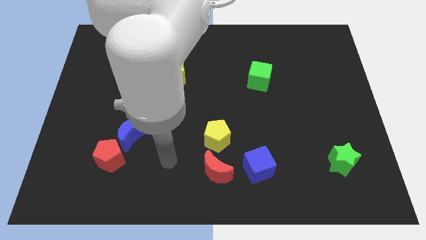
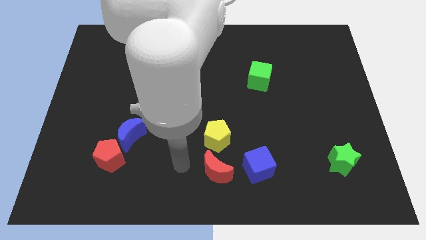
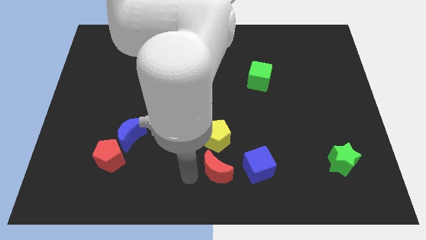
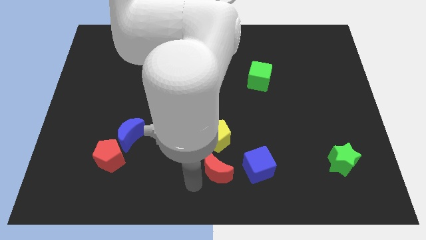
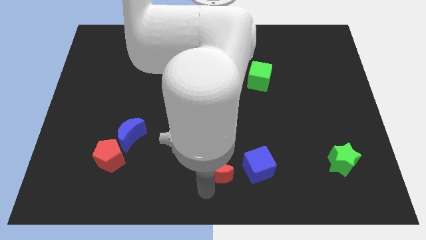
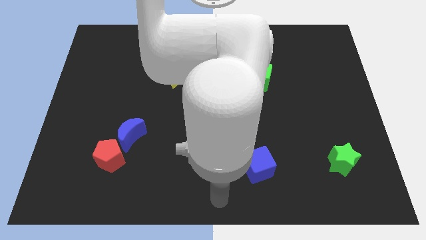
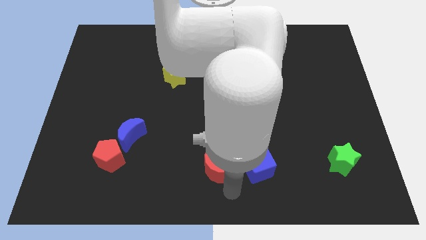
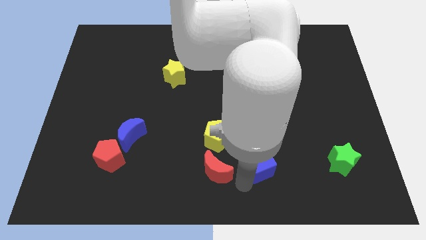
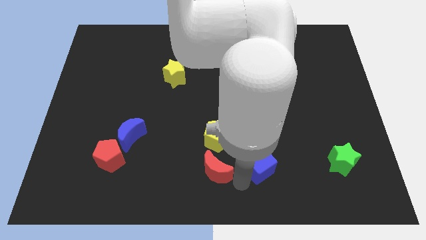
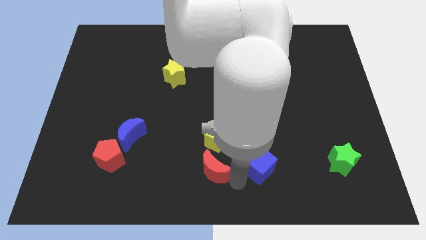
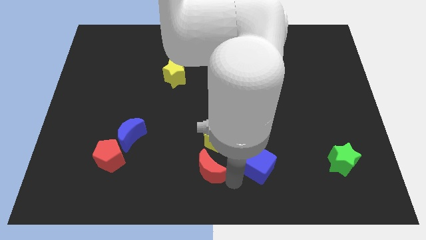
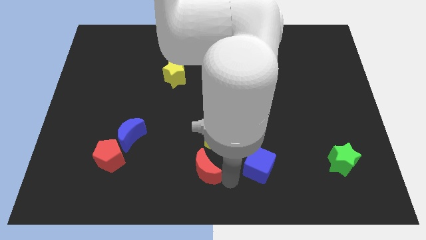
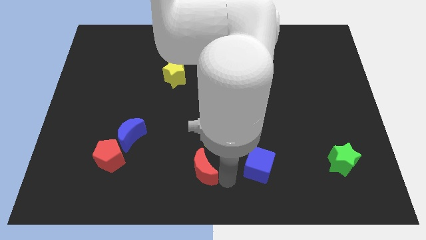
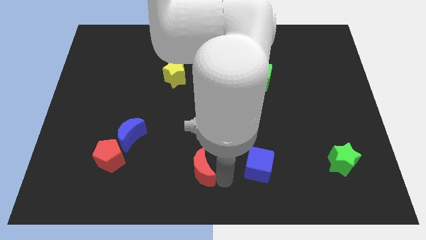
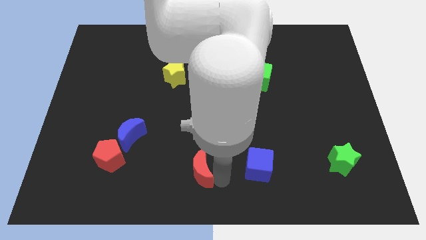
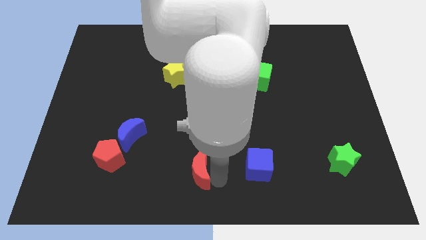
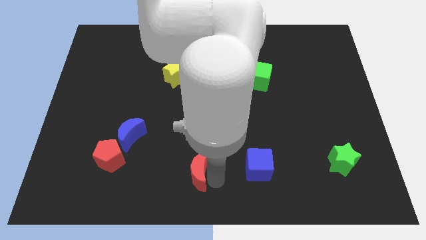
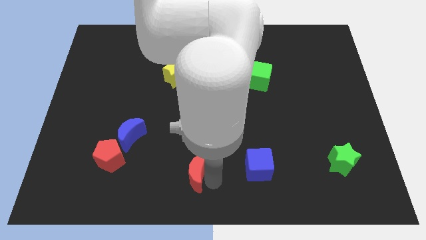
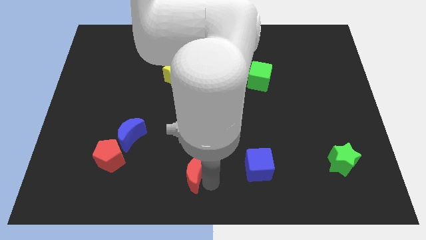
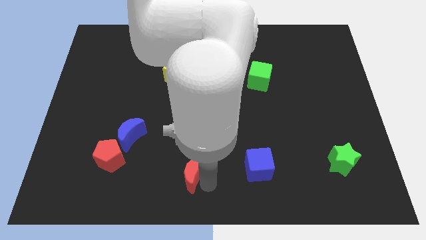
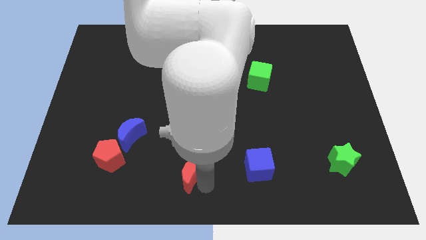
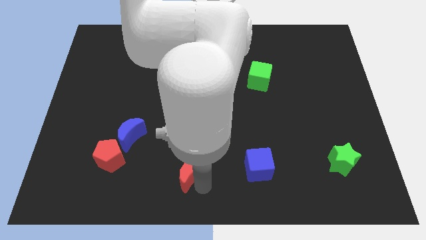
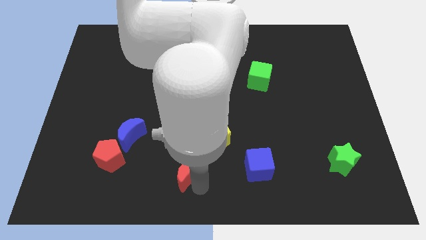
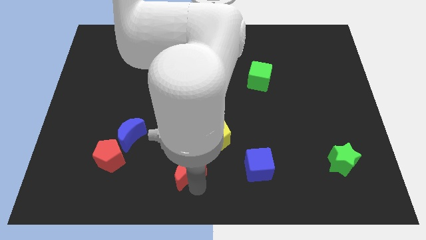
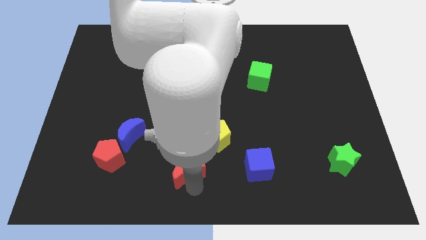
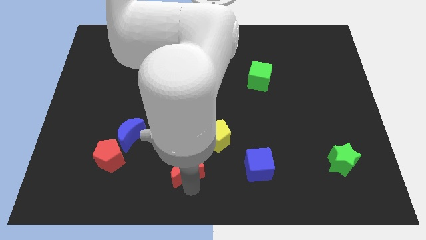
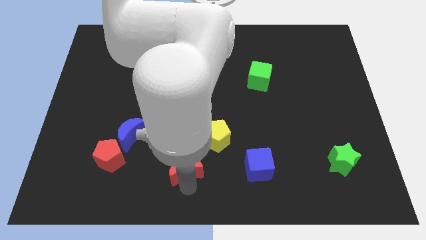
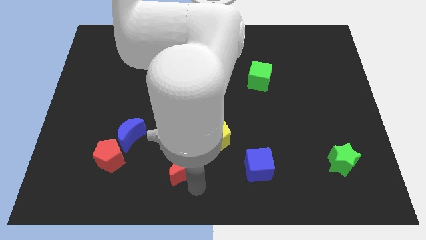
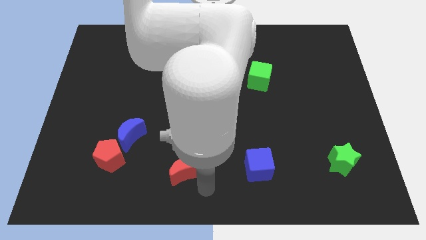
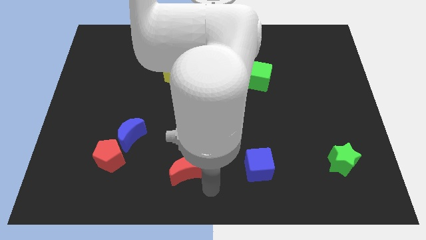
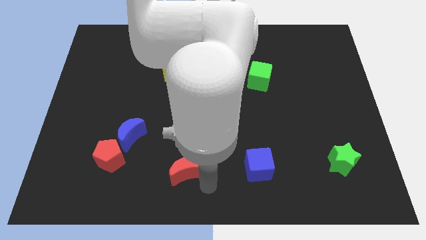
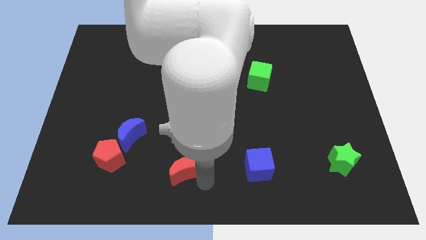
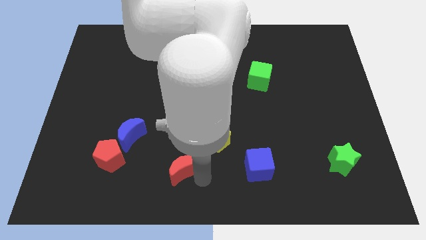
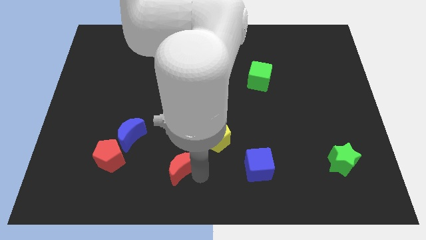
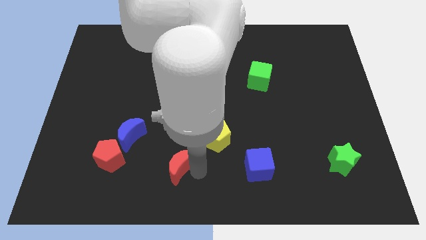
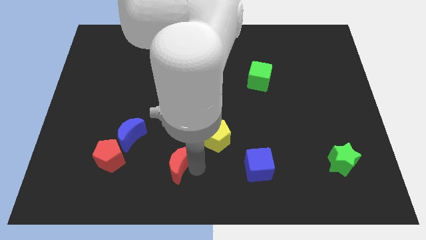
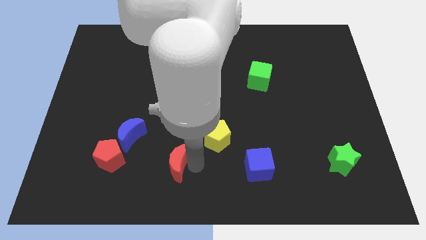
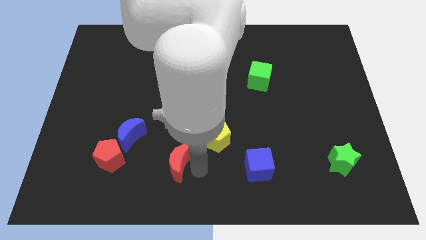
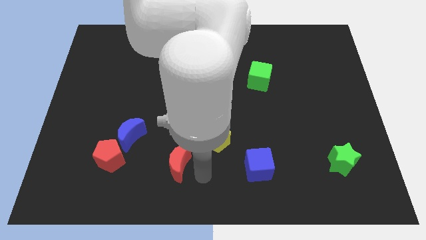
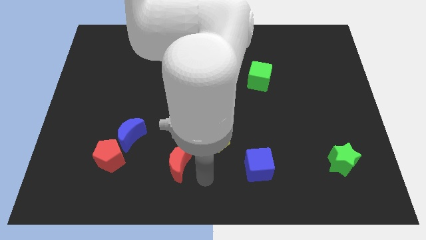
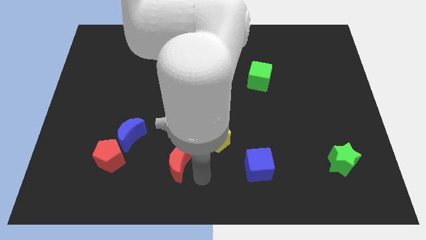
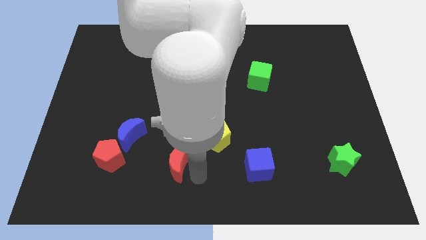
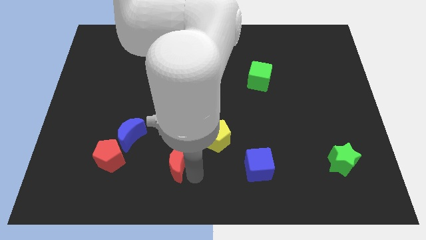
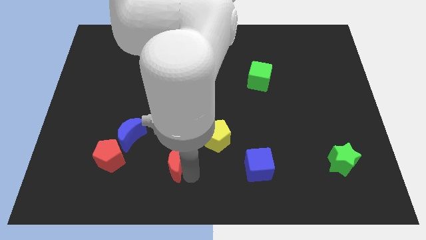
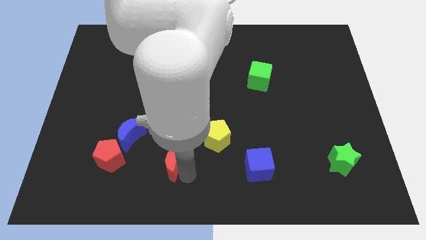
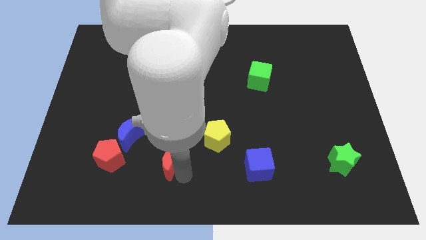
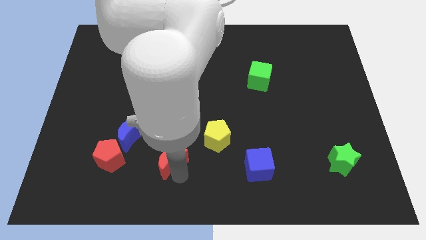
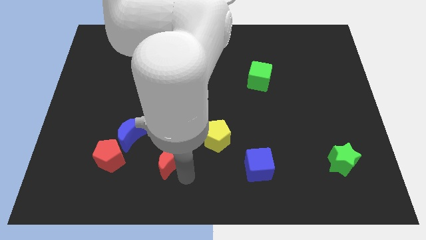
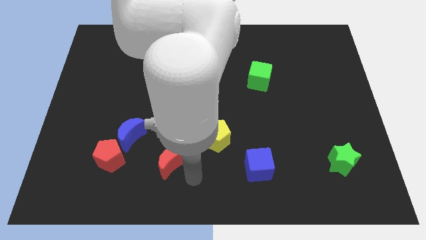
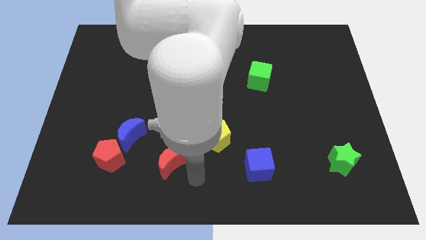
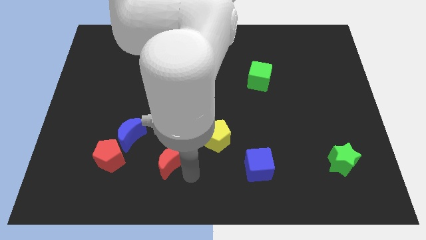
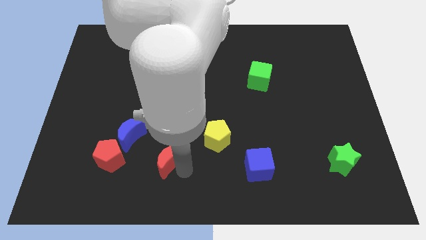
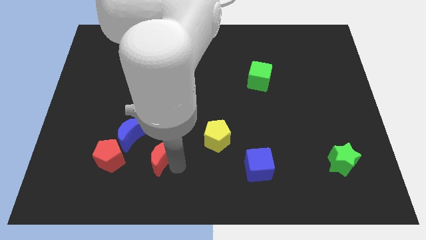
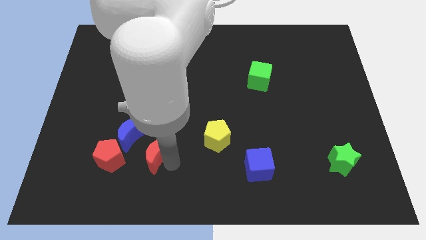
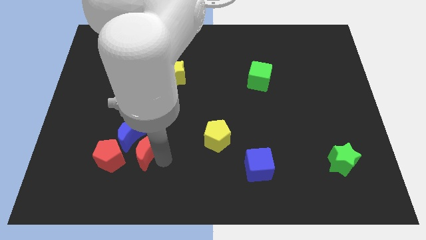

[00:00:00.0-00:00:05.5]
push the red moon towards the blue moon

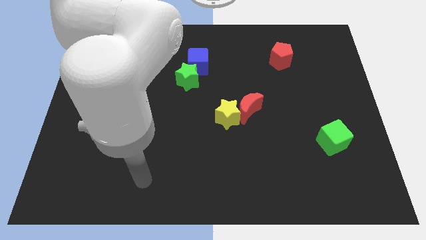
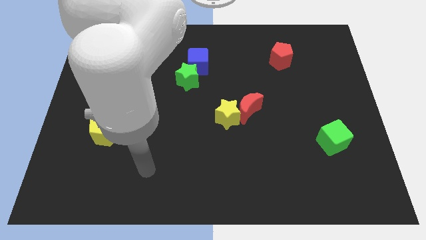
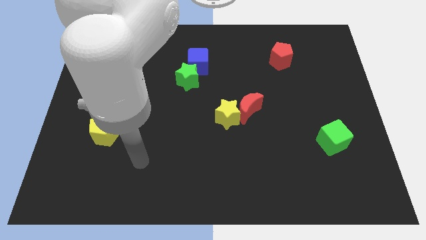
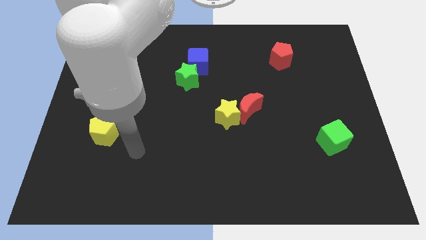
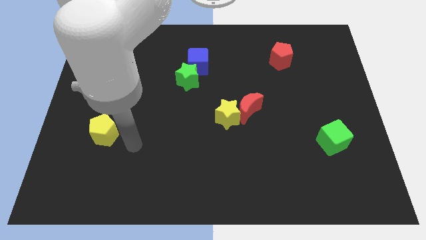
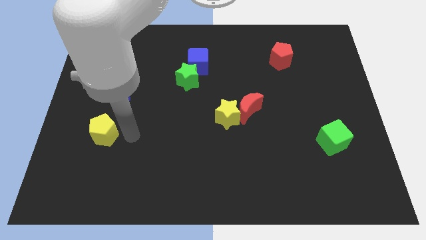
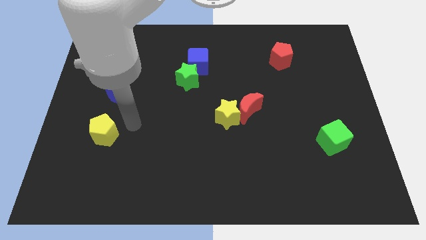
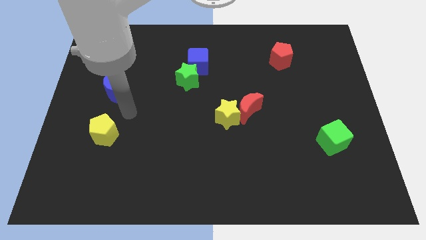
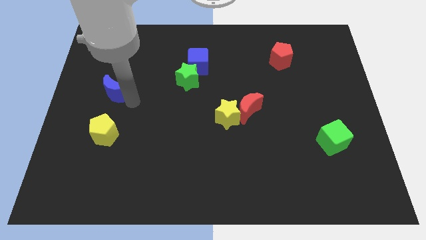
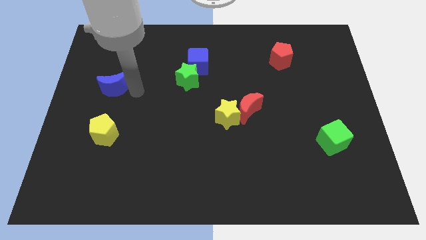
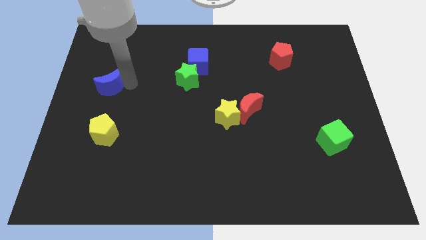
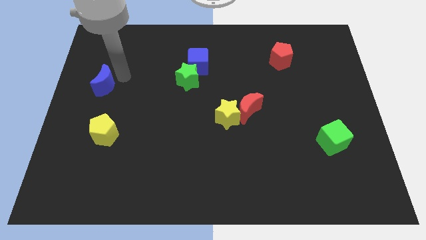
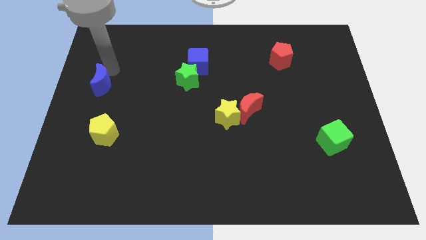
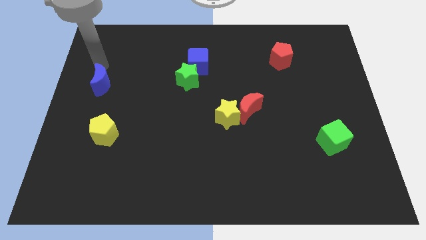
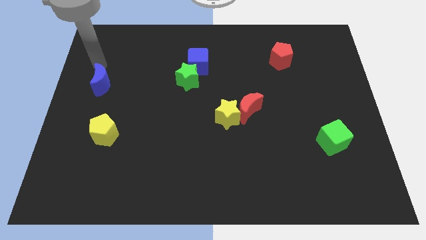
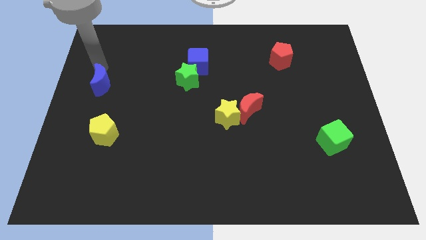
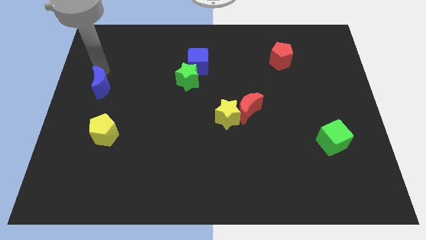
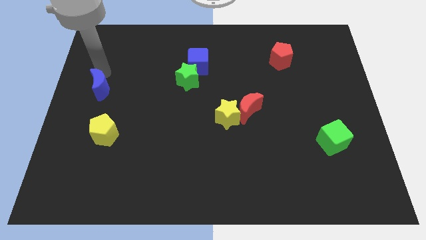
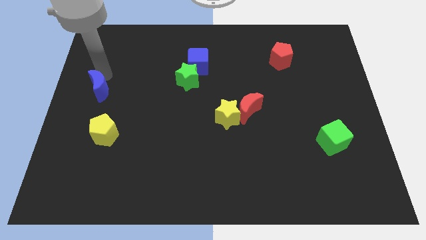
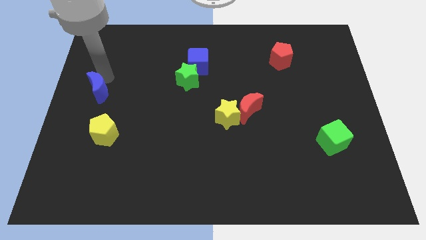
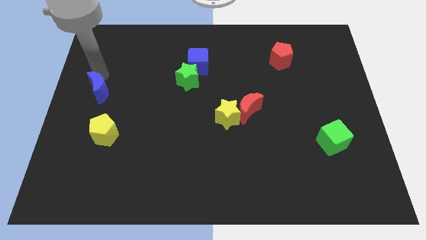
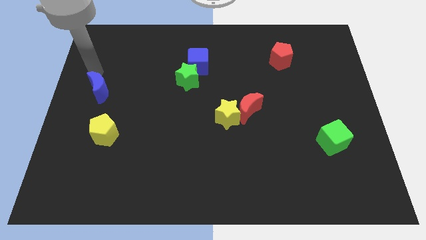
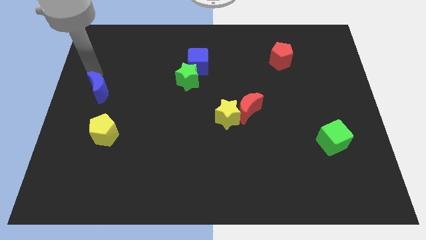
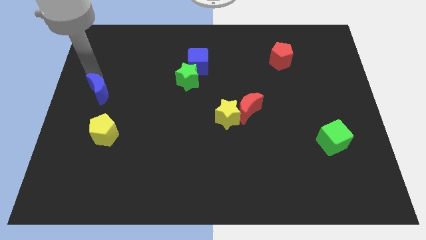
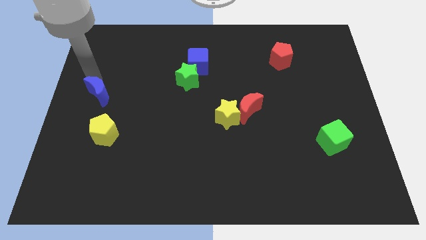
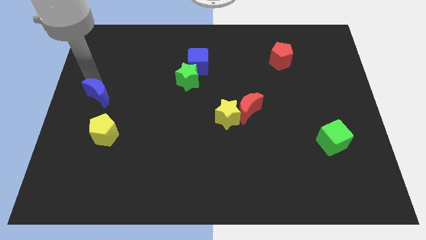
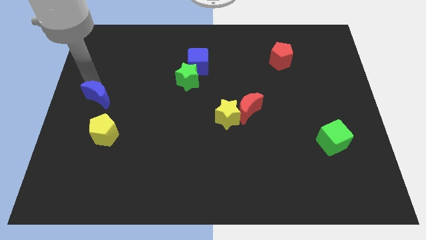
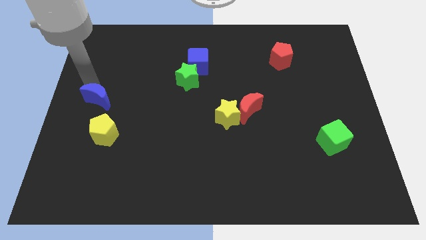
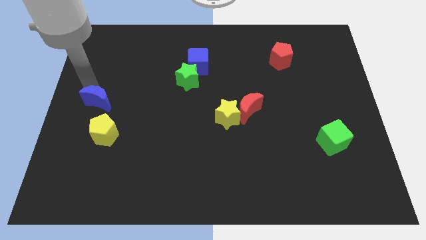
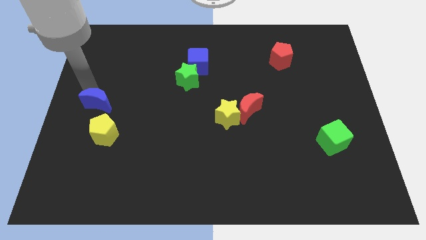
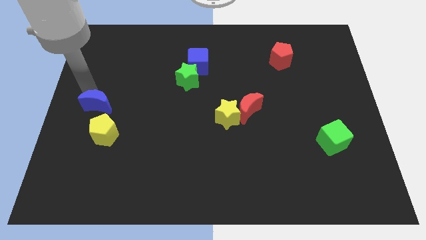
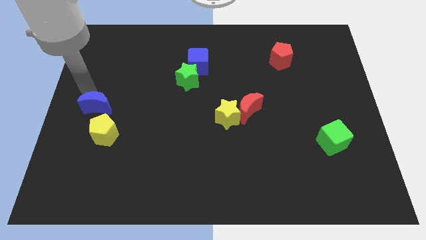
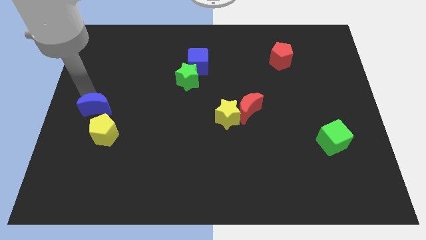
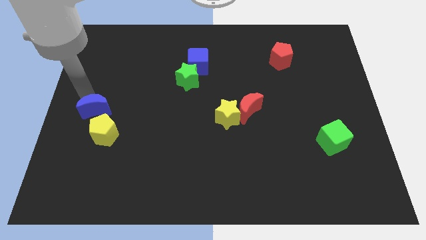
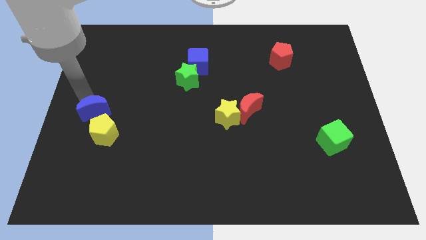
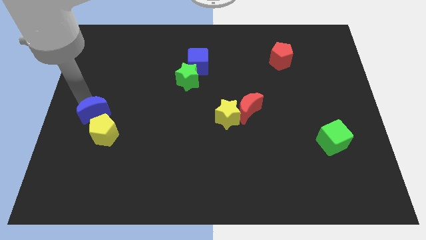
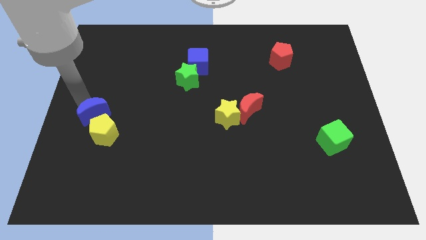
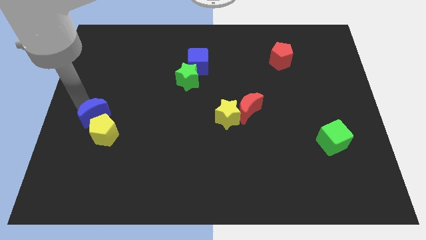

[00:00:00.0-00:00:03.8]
slide the blue moon next to the yellow pentagon
